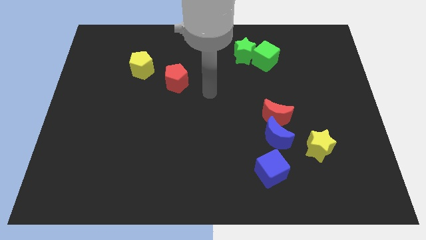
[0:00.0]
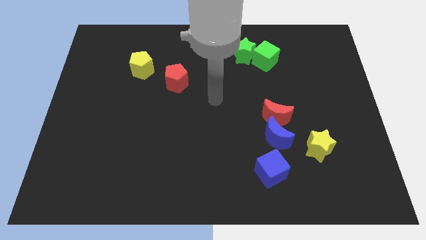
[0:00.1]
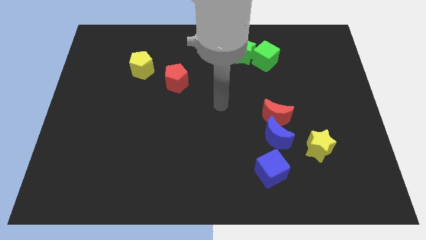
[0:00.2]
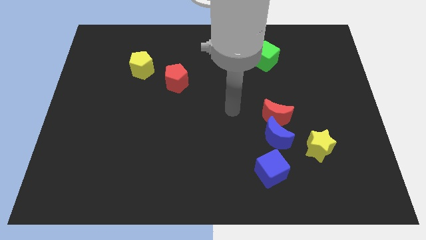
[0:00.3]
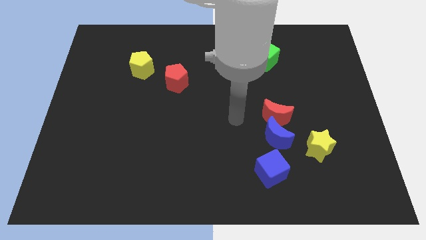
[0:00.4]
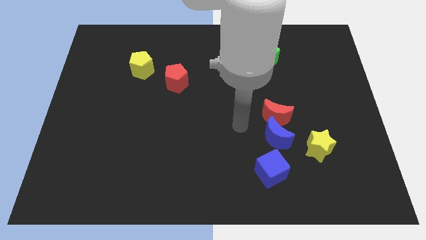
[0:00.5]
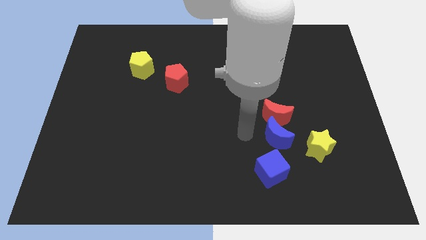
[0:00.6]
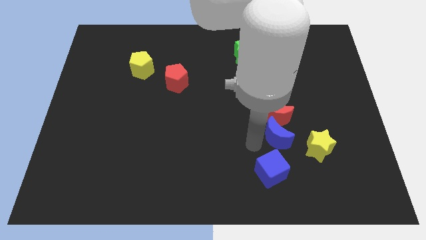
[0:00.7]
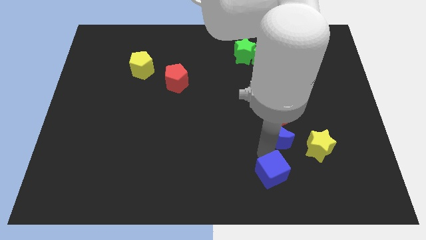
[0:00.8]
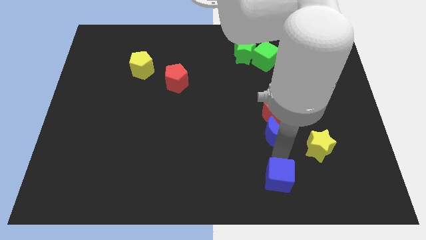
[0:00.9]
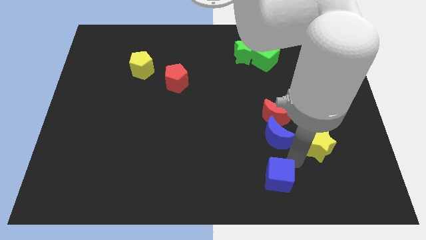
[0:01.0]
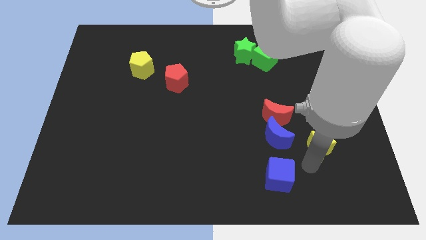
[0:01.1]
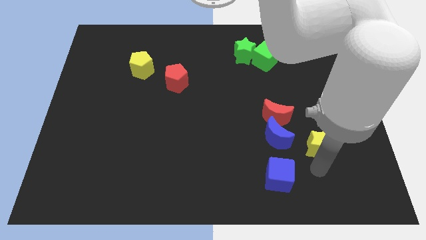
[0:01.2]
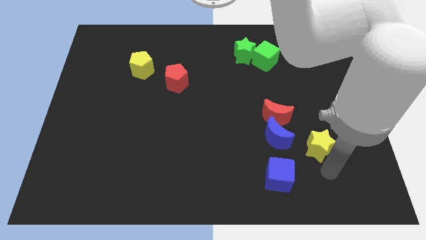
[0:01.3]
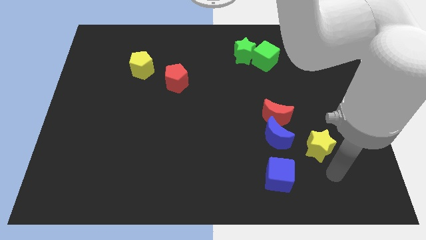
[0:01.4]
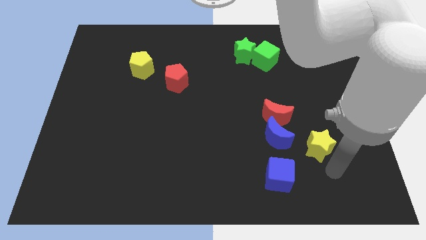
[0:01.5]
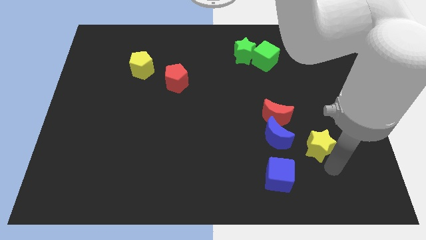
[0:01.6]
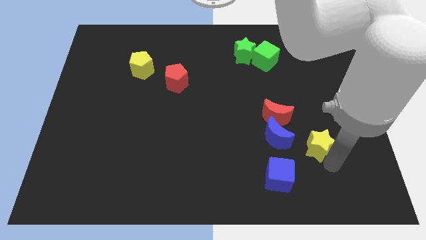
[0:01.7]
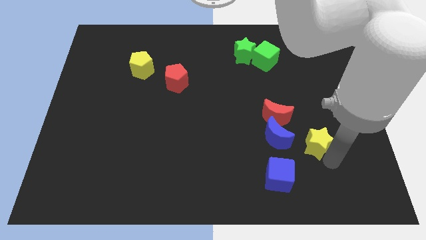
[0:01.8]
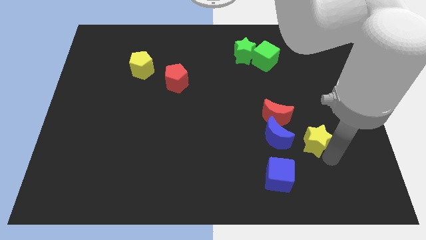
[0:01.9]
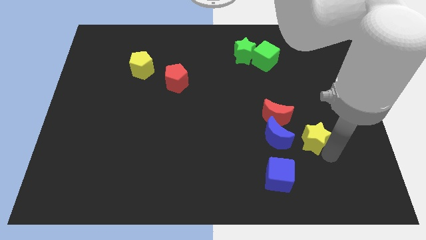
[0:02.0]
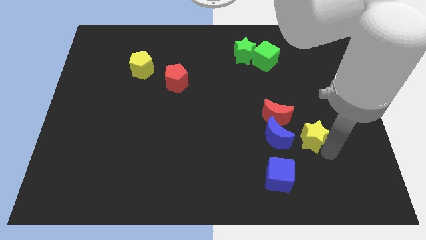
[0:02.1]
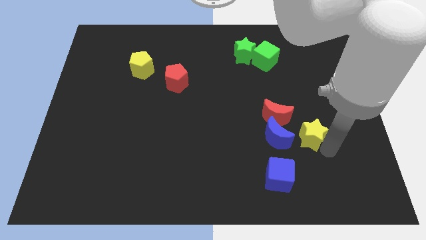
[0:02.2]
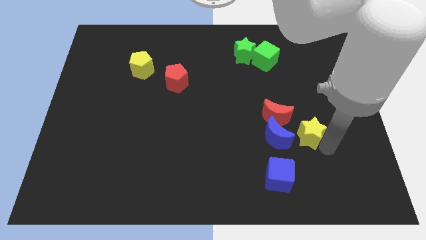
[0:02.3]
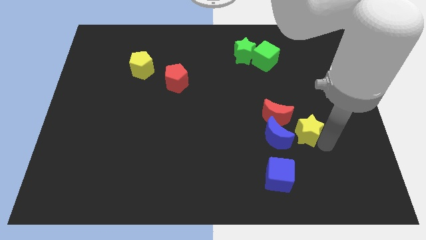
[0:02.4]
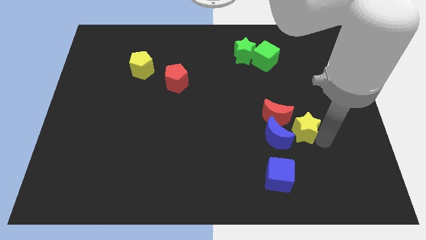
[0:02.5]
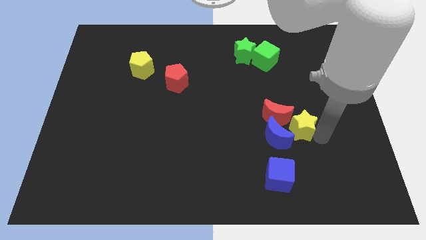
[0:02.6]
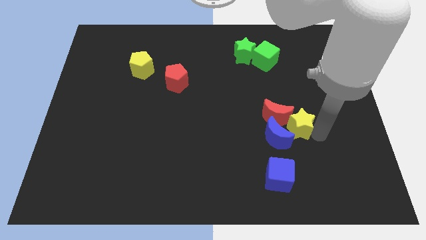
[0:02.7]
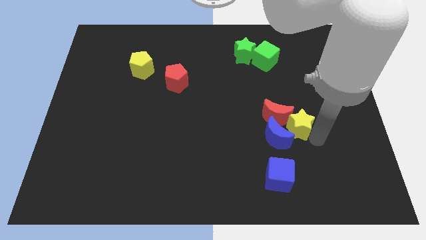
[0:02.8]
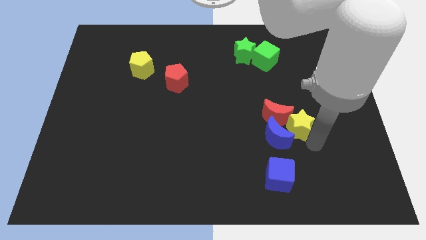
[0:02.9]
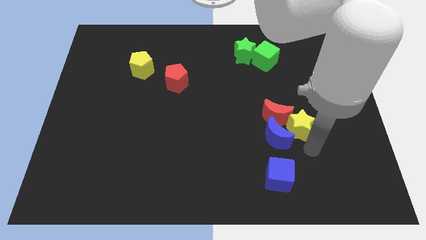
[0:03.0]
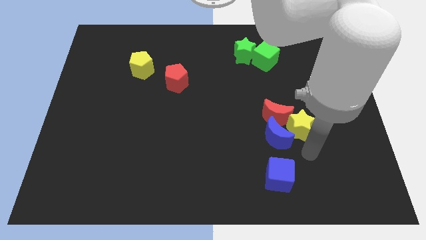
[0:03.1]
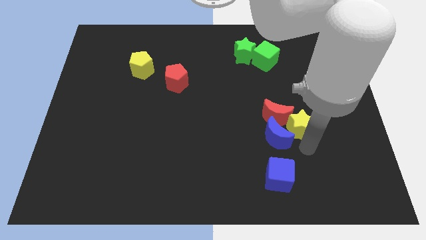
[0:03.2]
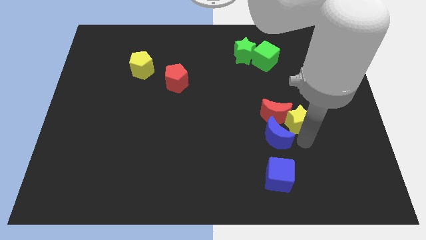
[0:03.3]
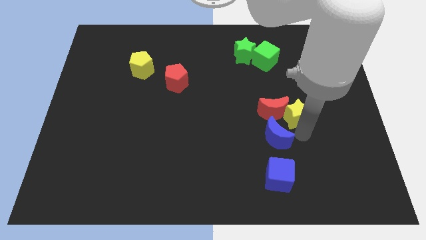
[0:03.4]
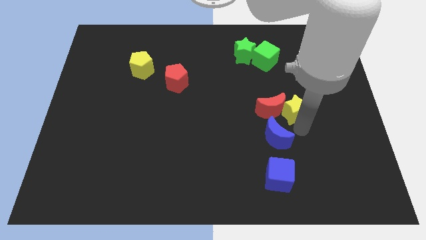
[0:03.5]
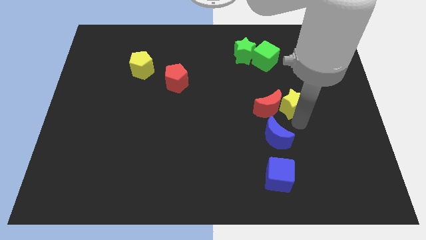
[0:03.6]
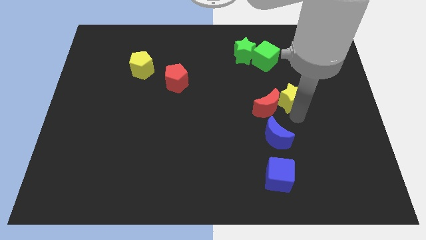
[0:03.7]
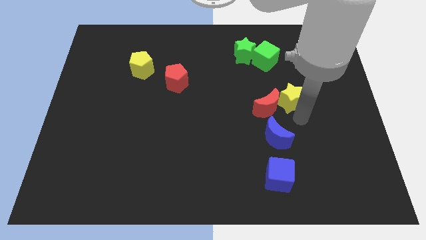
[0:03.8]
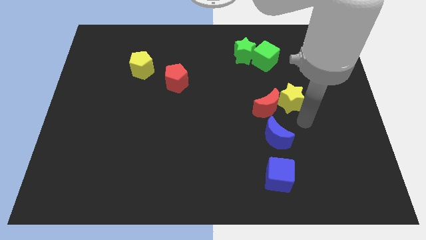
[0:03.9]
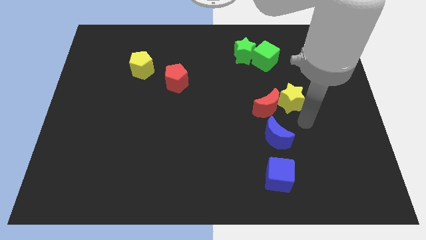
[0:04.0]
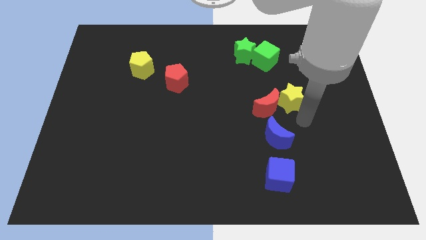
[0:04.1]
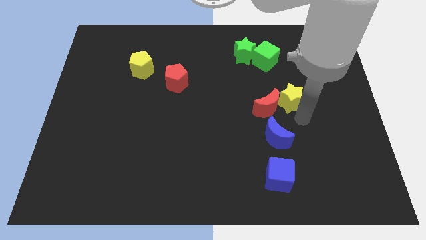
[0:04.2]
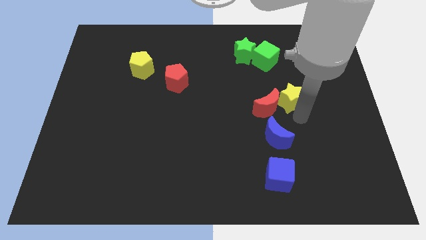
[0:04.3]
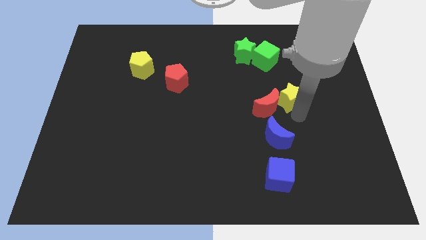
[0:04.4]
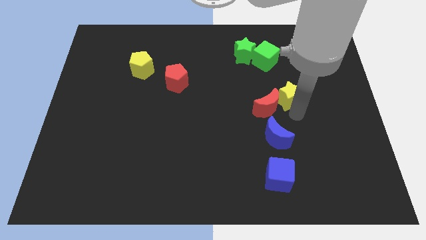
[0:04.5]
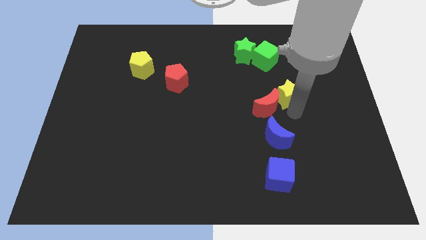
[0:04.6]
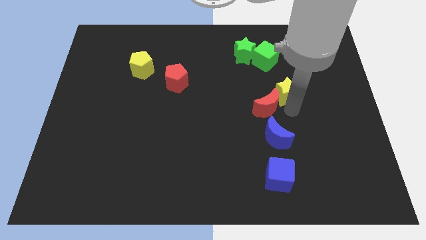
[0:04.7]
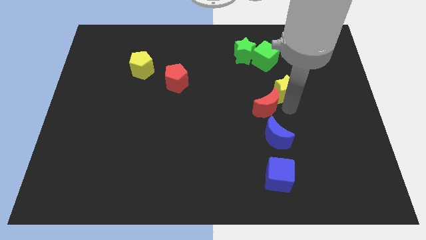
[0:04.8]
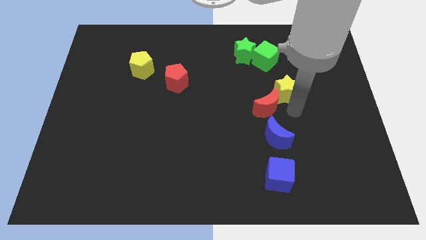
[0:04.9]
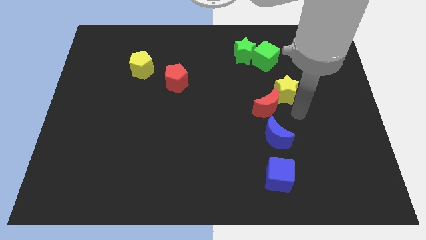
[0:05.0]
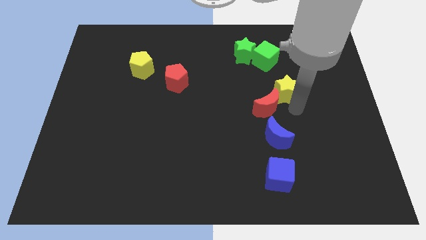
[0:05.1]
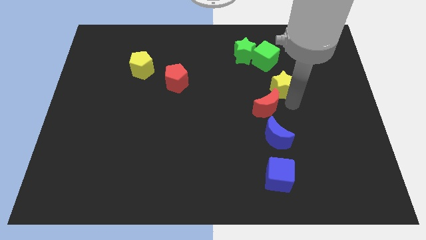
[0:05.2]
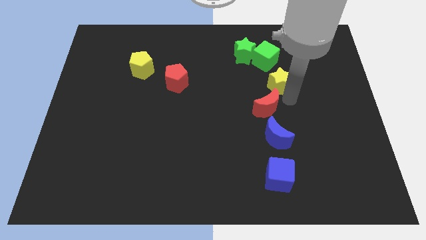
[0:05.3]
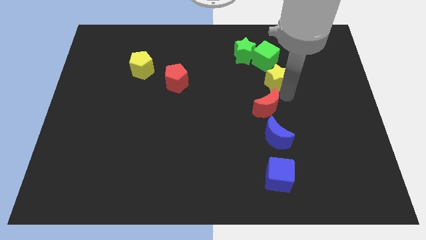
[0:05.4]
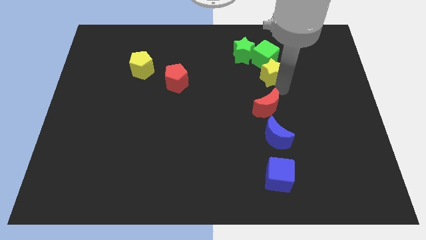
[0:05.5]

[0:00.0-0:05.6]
slide the yellow star next to the green cube

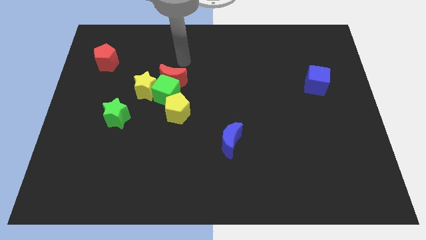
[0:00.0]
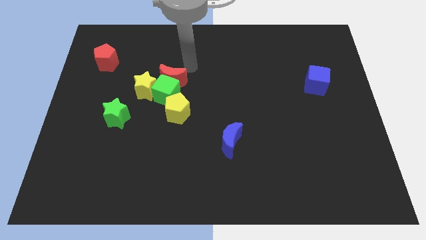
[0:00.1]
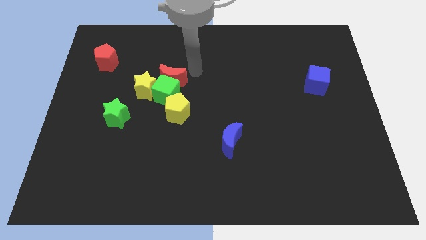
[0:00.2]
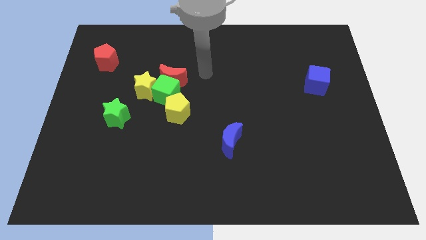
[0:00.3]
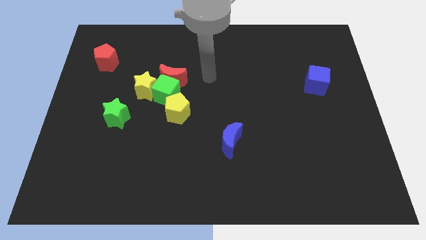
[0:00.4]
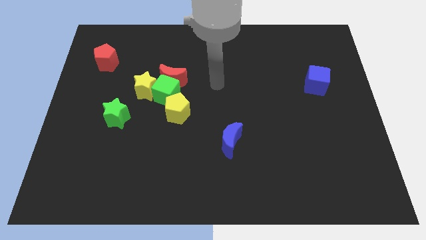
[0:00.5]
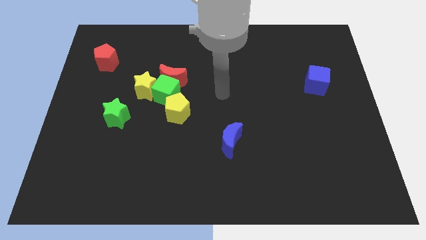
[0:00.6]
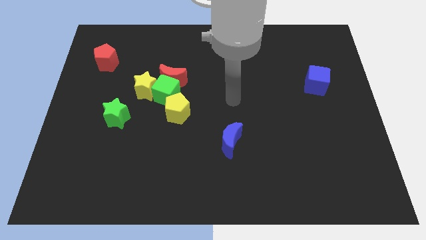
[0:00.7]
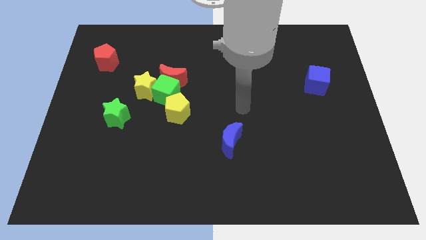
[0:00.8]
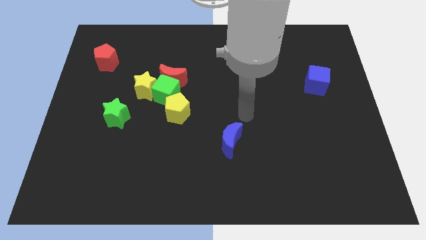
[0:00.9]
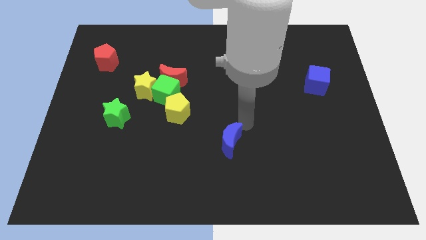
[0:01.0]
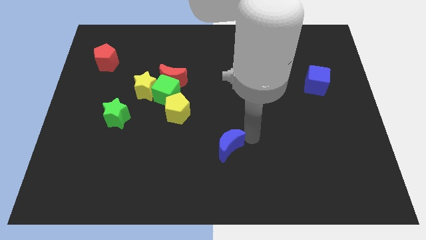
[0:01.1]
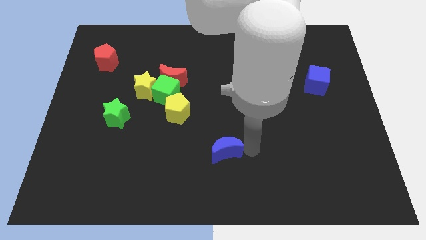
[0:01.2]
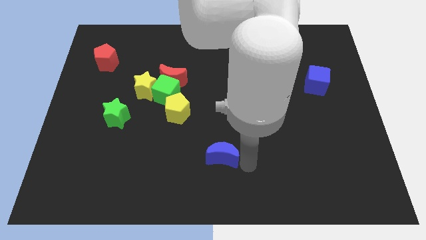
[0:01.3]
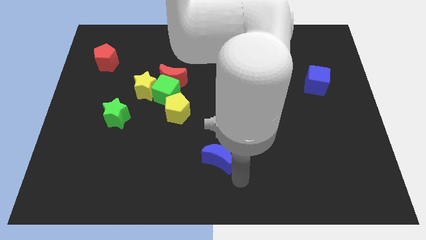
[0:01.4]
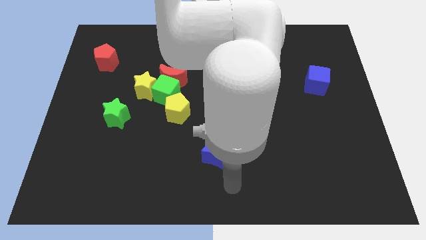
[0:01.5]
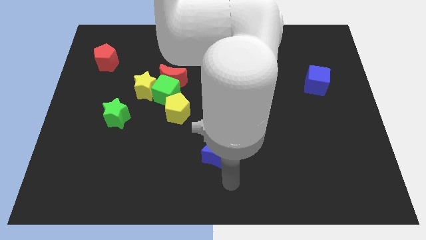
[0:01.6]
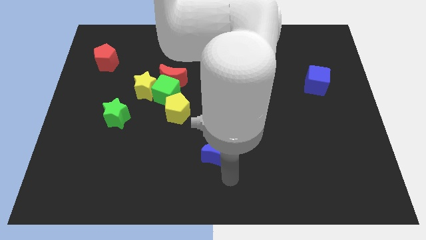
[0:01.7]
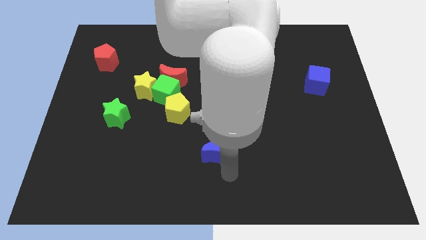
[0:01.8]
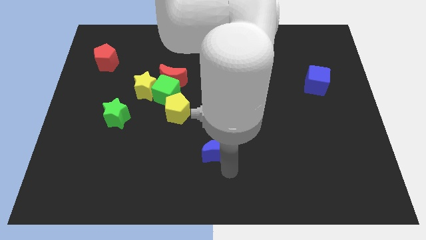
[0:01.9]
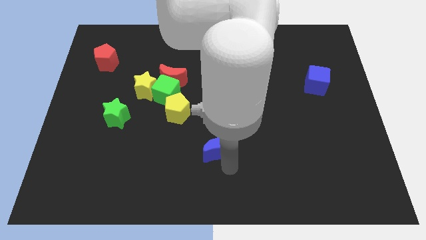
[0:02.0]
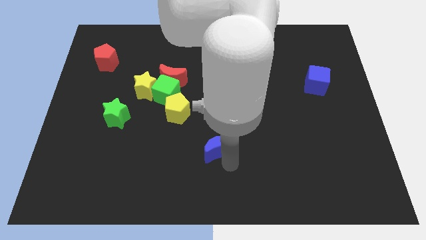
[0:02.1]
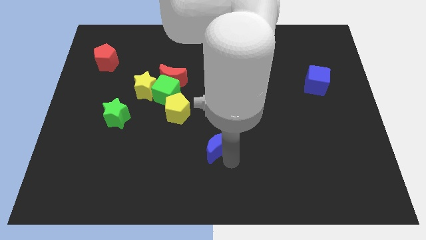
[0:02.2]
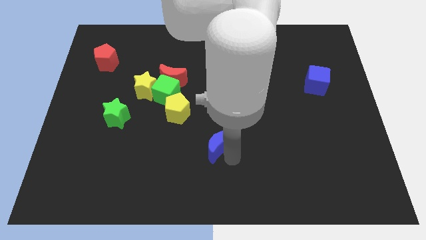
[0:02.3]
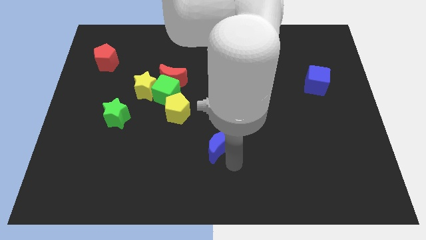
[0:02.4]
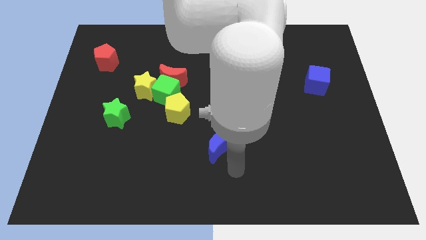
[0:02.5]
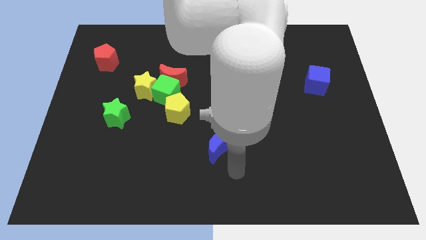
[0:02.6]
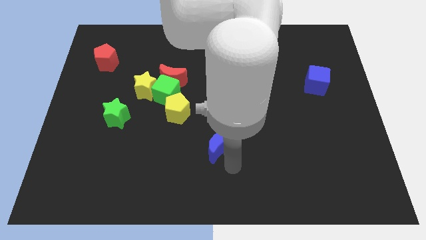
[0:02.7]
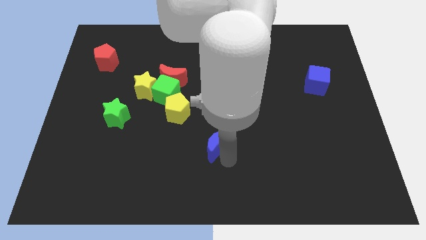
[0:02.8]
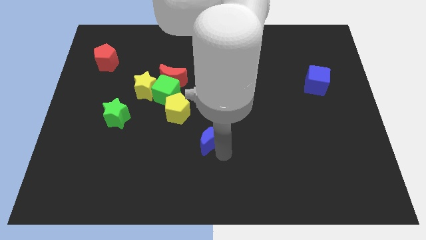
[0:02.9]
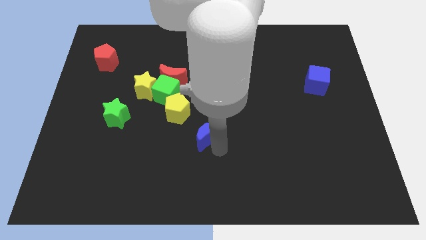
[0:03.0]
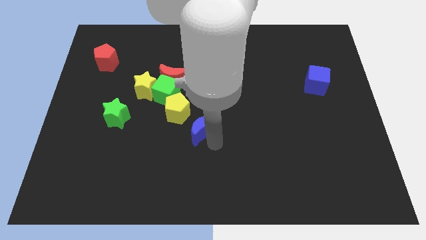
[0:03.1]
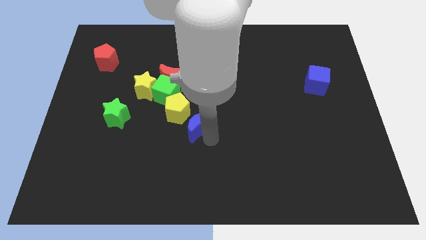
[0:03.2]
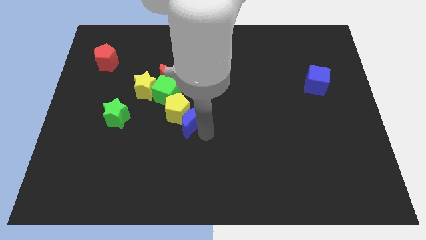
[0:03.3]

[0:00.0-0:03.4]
move the blue moon towards the yellow pentagon
